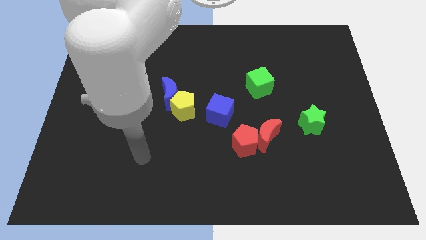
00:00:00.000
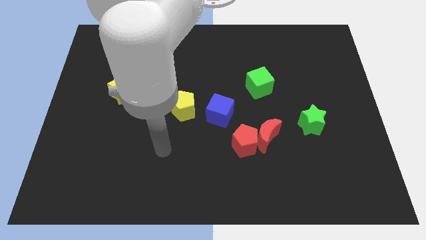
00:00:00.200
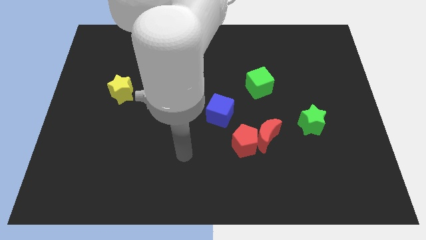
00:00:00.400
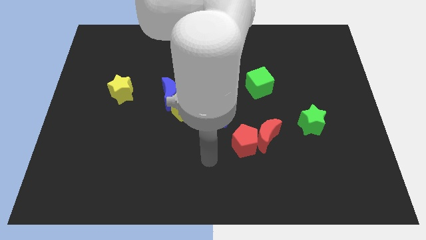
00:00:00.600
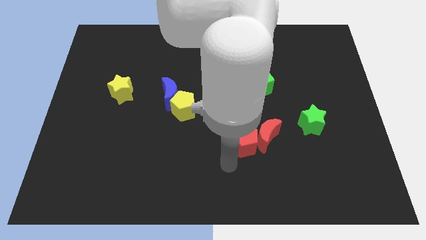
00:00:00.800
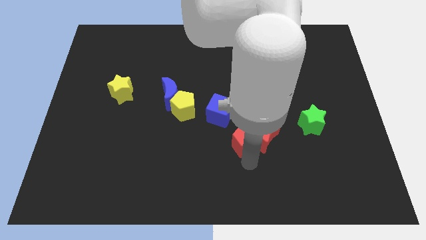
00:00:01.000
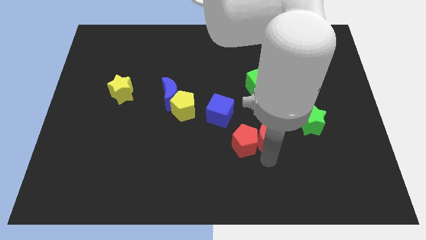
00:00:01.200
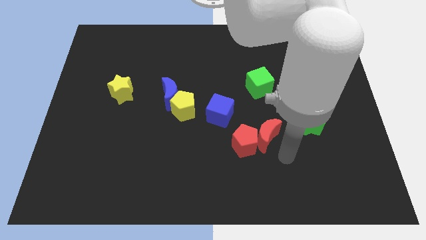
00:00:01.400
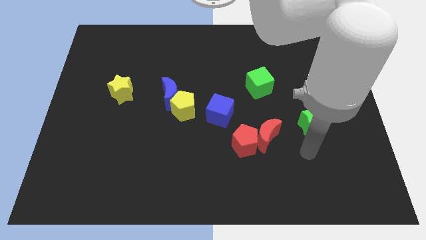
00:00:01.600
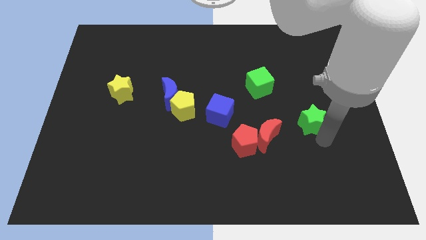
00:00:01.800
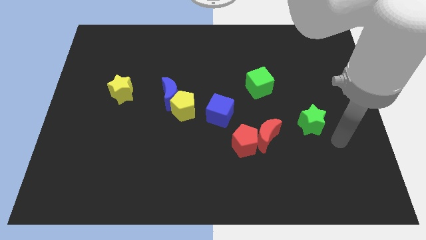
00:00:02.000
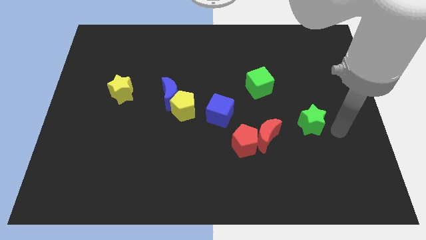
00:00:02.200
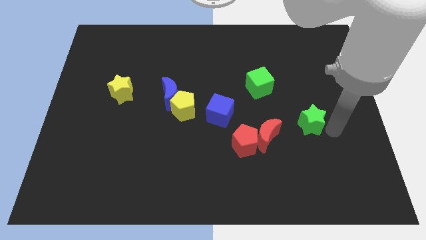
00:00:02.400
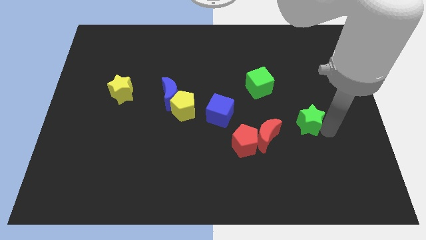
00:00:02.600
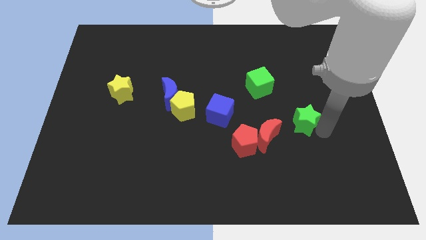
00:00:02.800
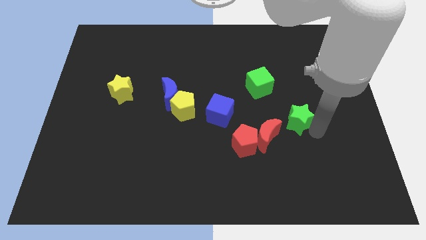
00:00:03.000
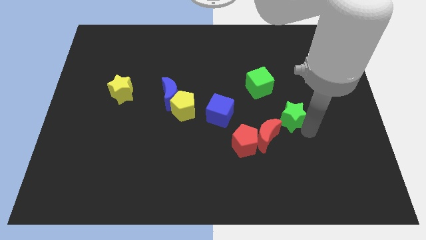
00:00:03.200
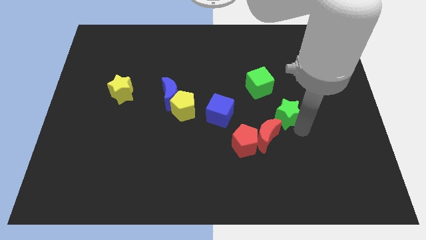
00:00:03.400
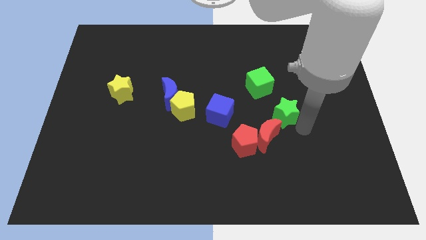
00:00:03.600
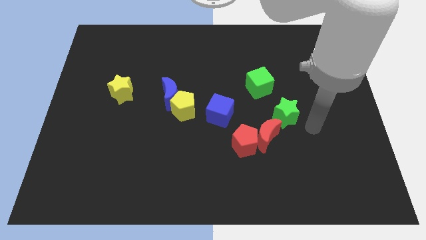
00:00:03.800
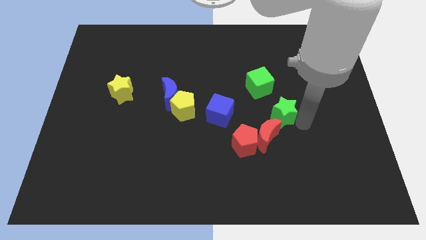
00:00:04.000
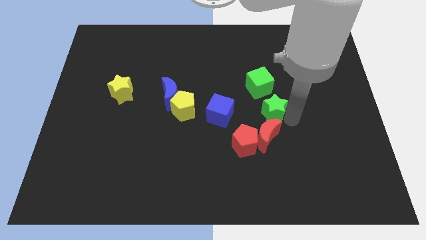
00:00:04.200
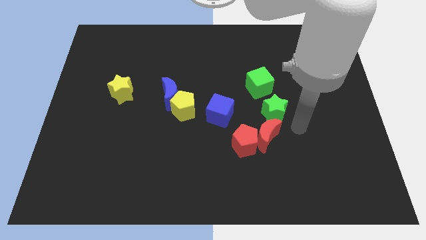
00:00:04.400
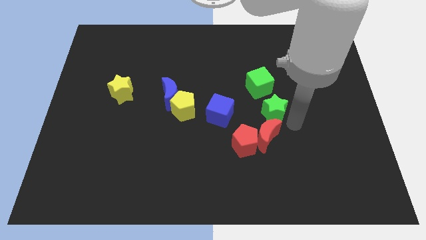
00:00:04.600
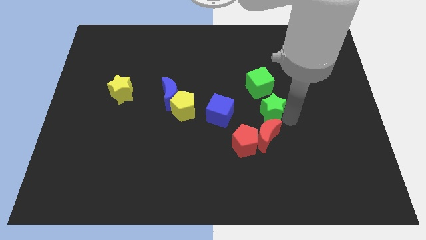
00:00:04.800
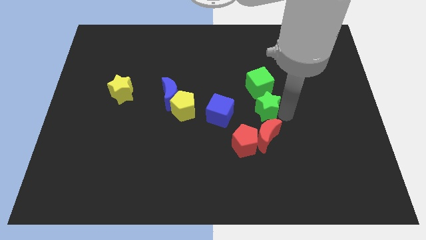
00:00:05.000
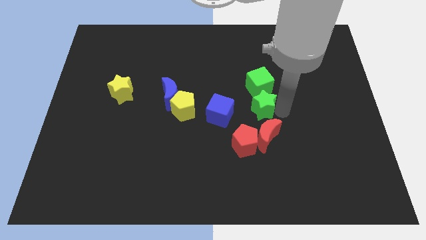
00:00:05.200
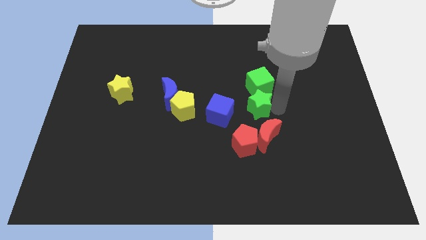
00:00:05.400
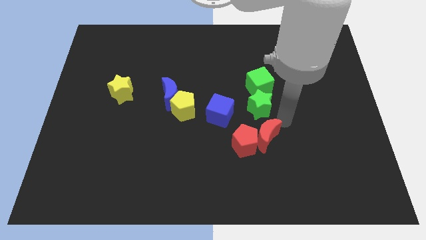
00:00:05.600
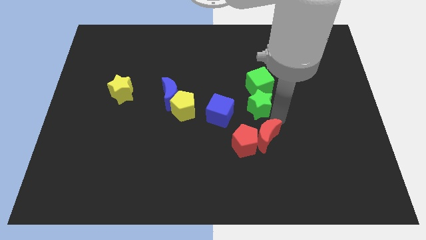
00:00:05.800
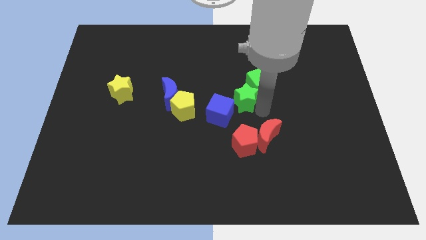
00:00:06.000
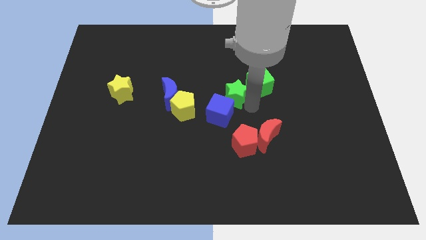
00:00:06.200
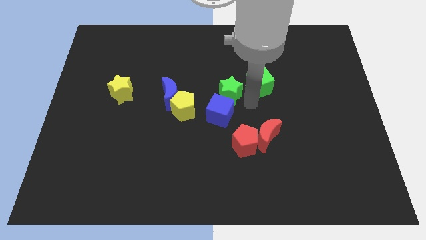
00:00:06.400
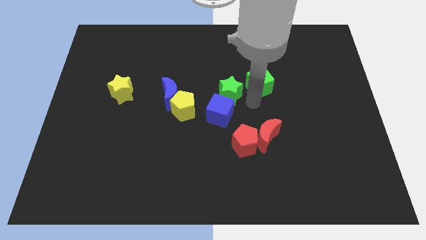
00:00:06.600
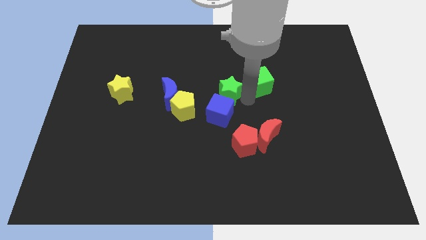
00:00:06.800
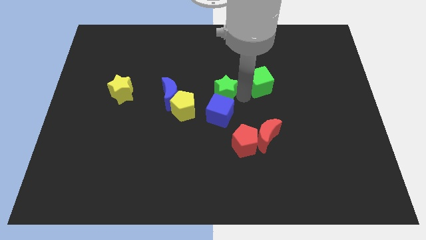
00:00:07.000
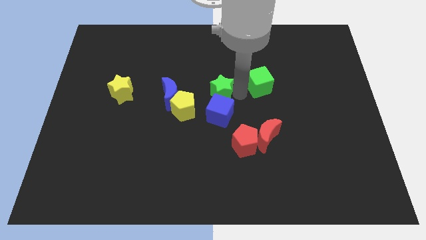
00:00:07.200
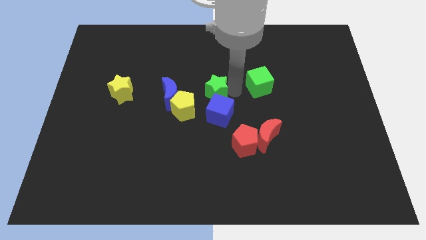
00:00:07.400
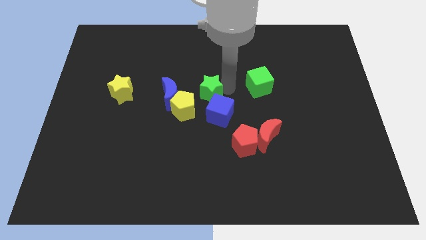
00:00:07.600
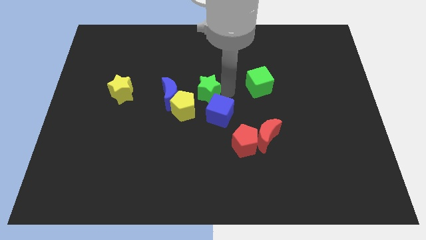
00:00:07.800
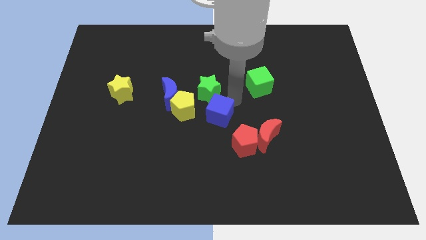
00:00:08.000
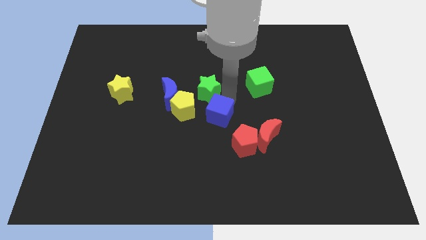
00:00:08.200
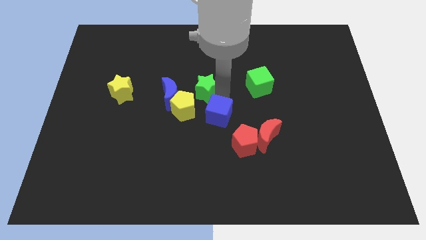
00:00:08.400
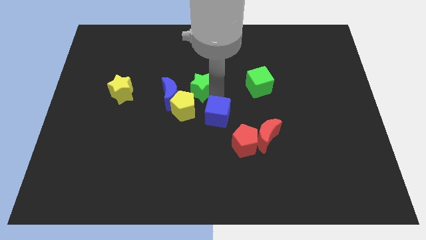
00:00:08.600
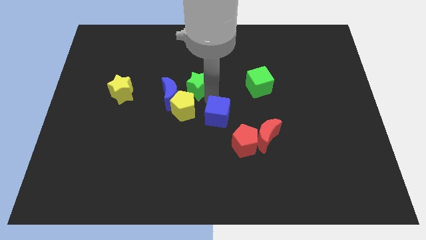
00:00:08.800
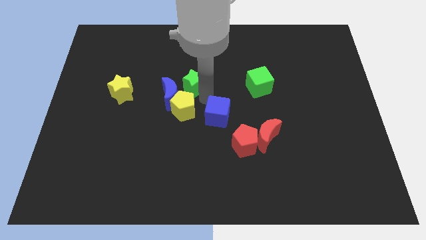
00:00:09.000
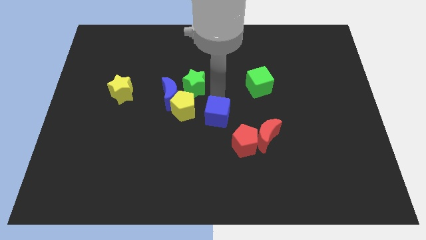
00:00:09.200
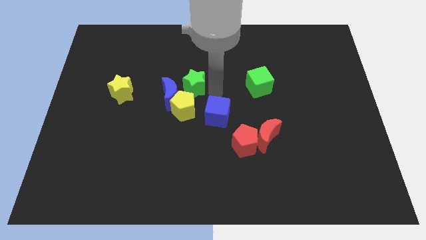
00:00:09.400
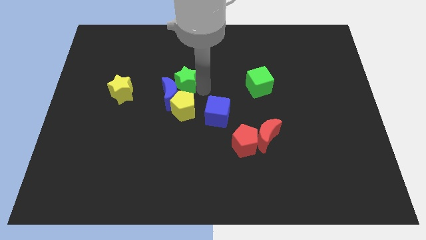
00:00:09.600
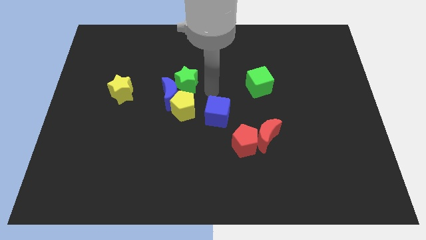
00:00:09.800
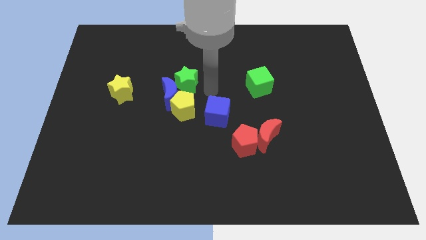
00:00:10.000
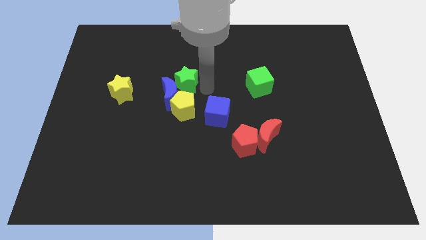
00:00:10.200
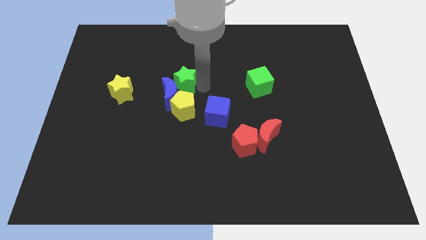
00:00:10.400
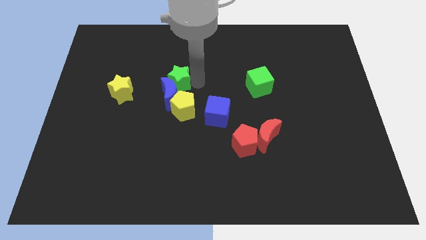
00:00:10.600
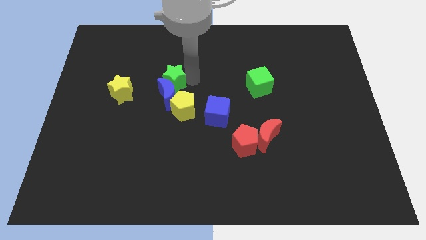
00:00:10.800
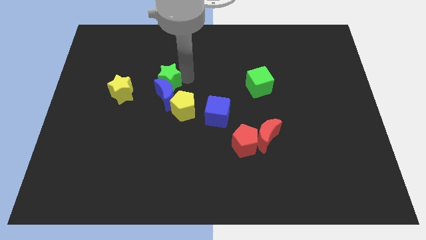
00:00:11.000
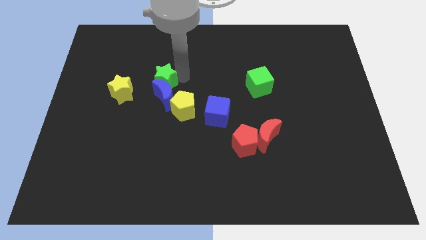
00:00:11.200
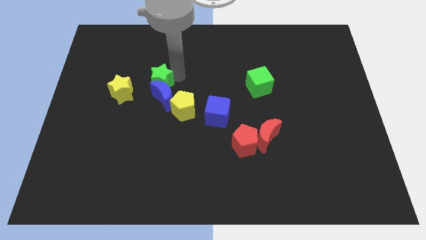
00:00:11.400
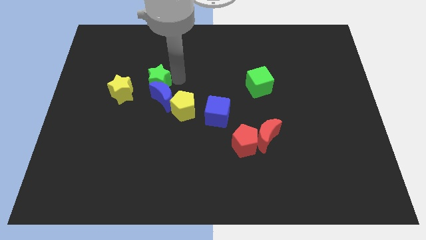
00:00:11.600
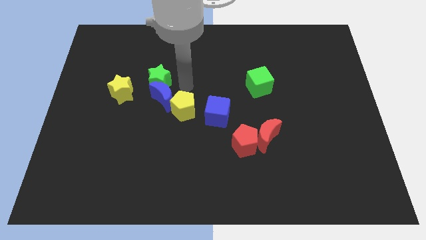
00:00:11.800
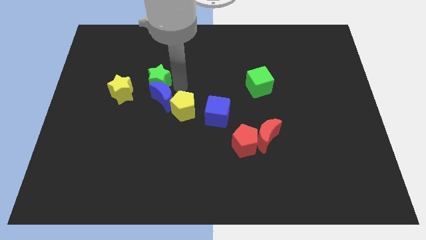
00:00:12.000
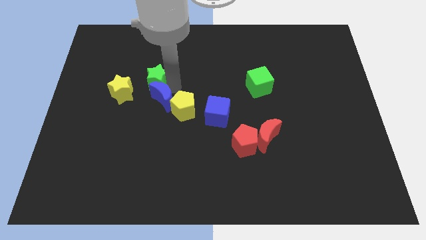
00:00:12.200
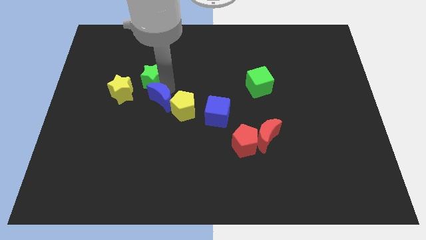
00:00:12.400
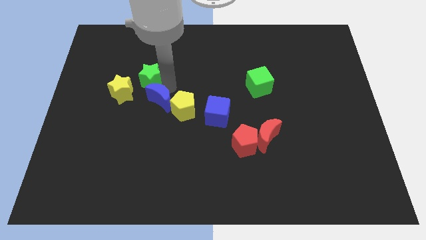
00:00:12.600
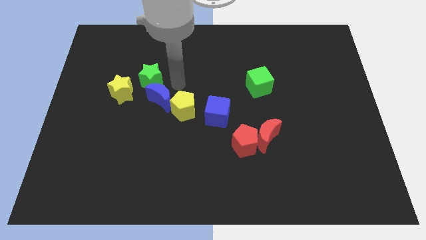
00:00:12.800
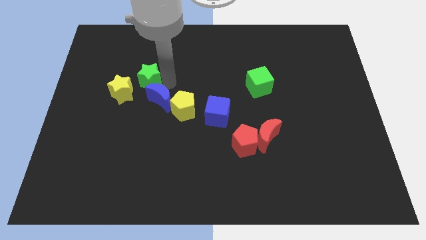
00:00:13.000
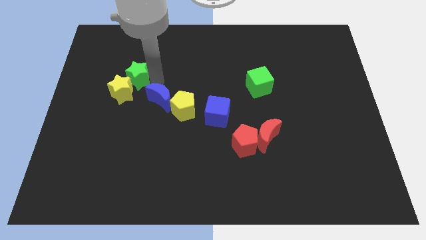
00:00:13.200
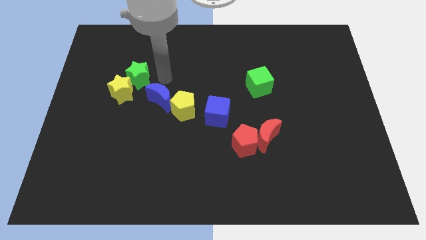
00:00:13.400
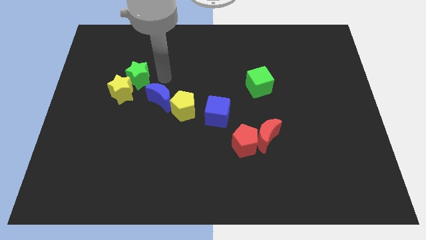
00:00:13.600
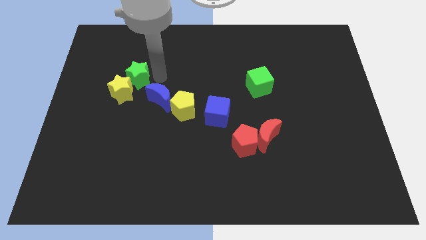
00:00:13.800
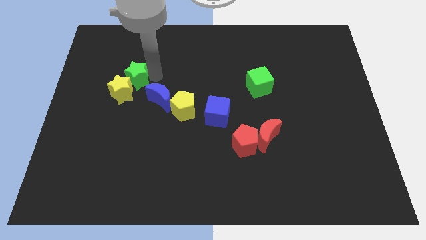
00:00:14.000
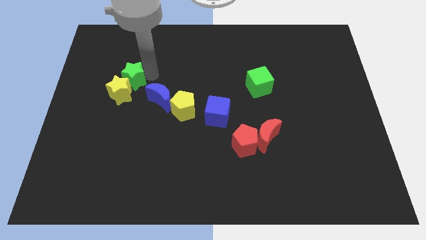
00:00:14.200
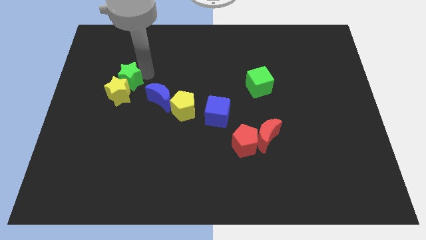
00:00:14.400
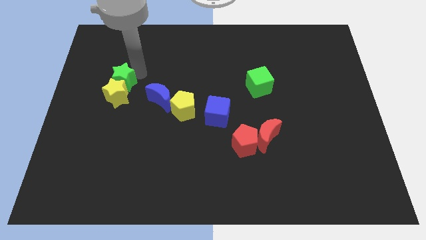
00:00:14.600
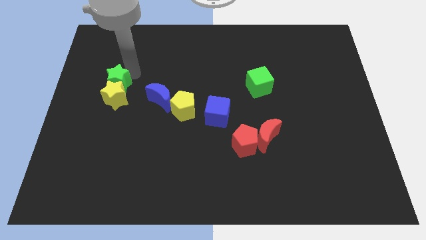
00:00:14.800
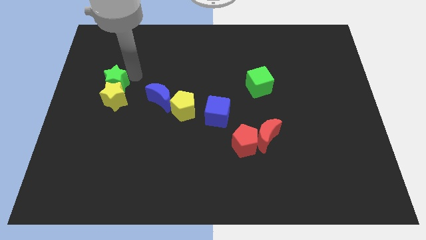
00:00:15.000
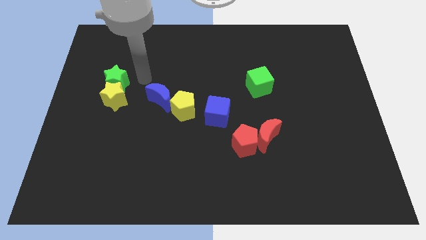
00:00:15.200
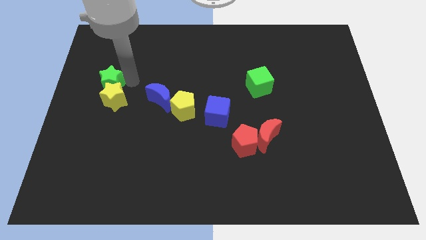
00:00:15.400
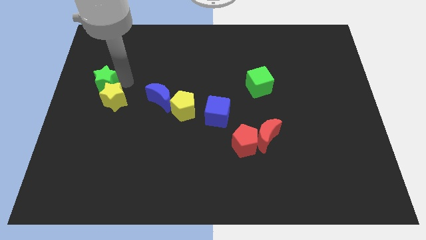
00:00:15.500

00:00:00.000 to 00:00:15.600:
slide the green star to the left side of the board
